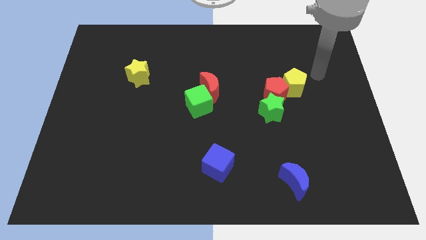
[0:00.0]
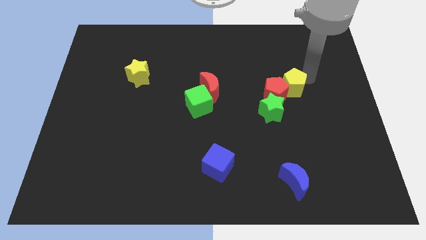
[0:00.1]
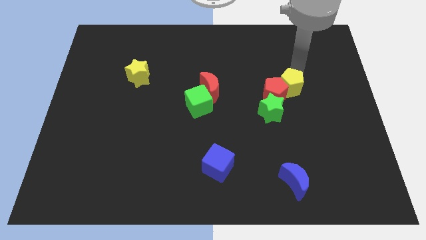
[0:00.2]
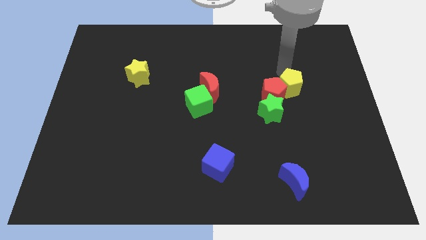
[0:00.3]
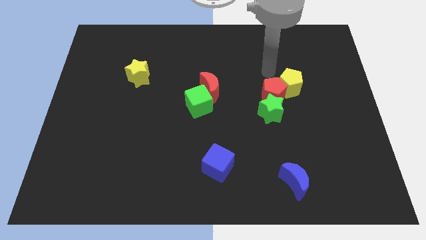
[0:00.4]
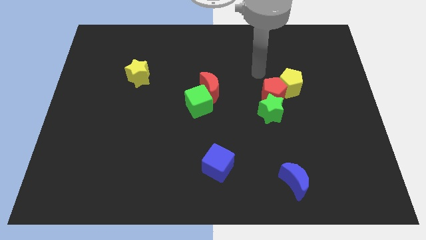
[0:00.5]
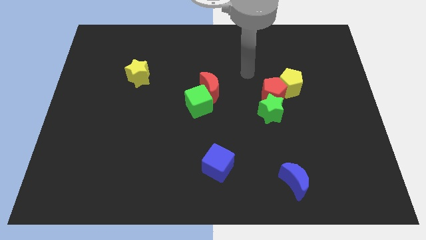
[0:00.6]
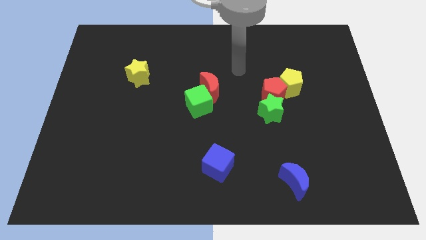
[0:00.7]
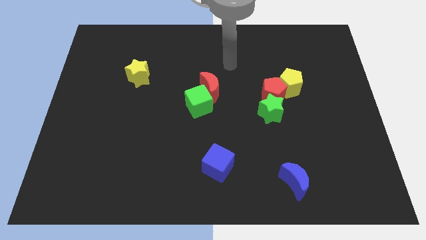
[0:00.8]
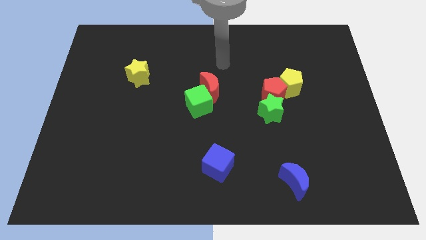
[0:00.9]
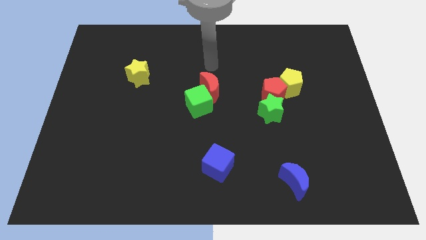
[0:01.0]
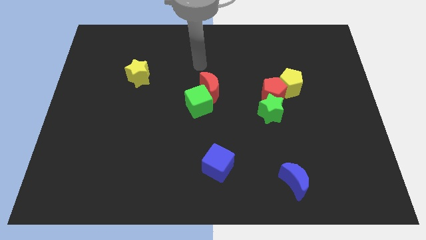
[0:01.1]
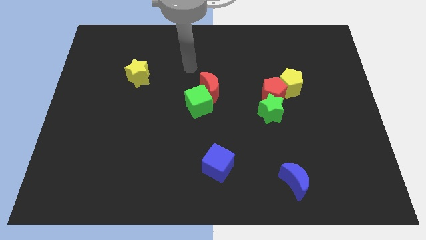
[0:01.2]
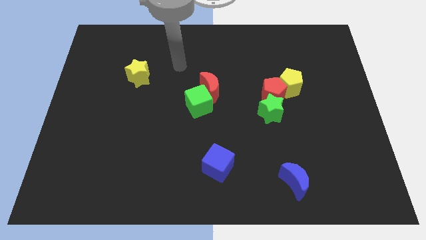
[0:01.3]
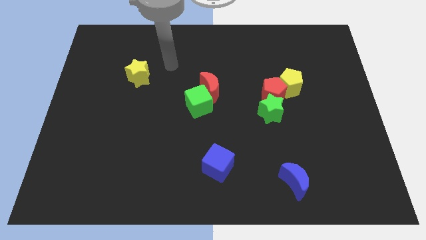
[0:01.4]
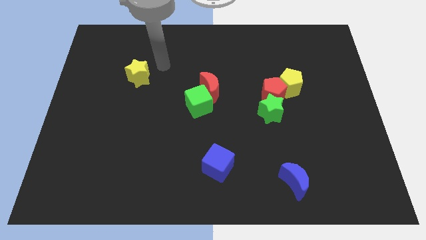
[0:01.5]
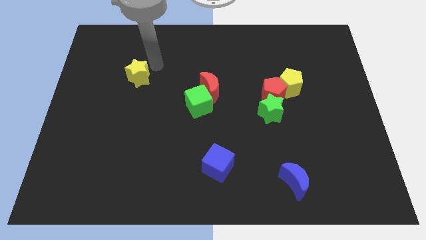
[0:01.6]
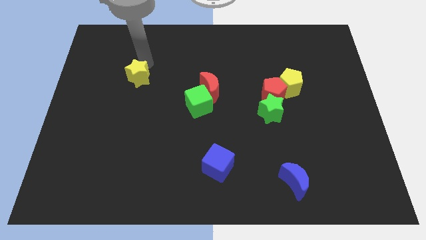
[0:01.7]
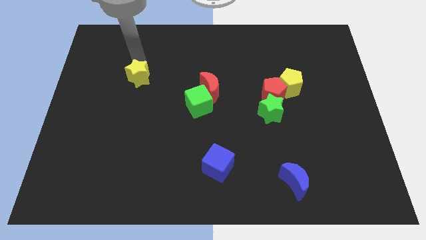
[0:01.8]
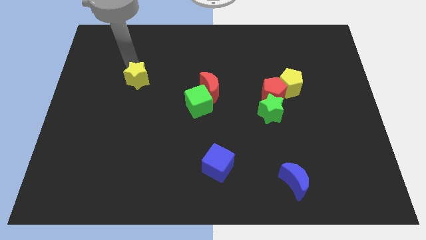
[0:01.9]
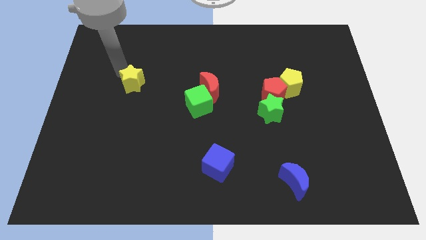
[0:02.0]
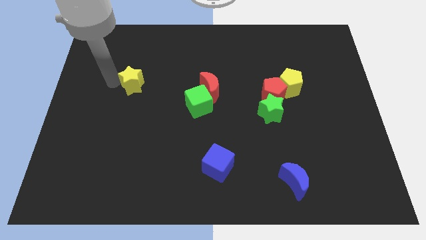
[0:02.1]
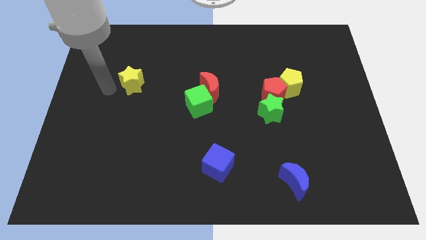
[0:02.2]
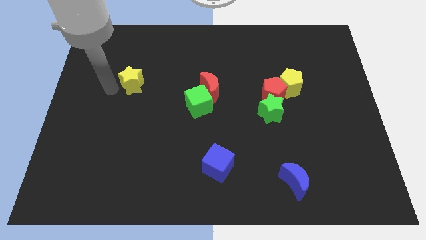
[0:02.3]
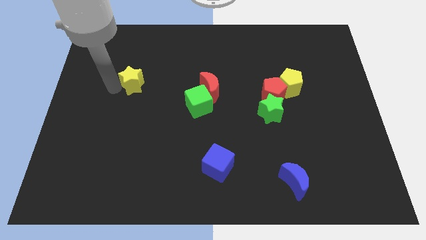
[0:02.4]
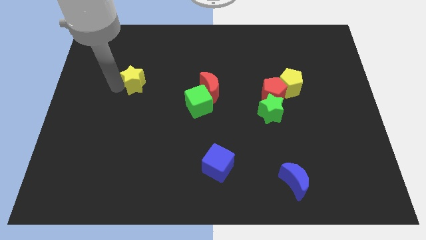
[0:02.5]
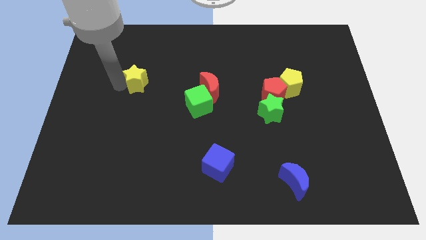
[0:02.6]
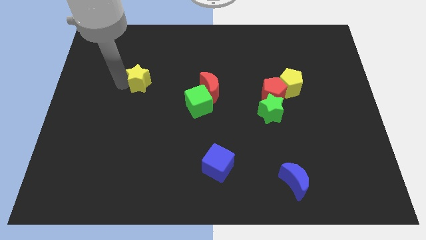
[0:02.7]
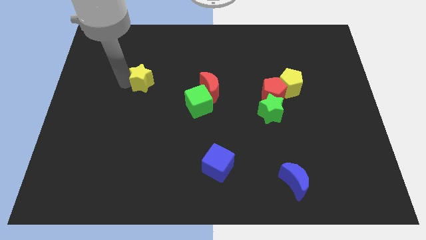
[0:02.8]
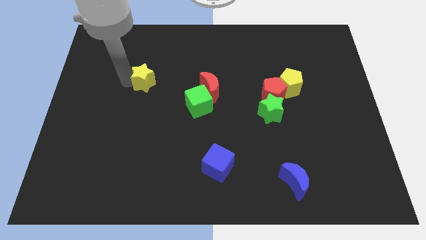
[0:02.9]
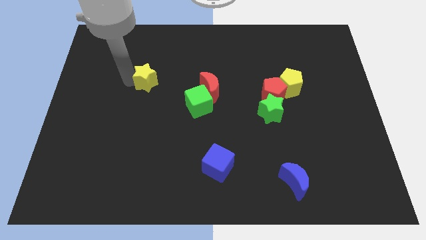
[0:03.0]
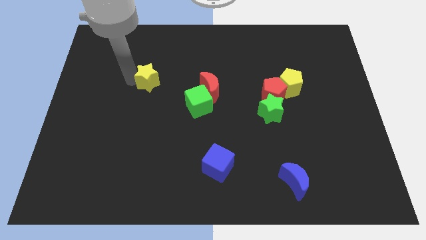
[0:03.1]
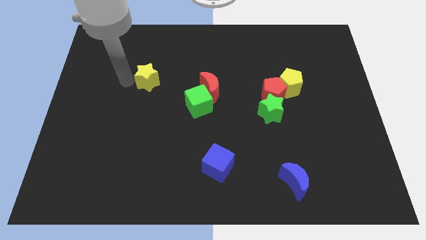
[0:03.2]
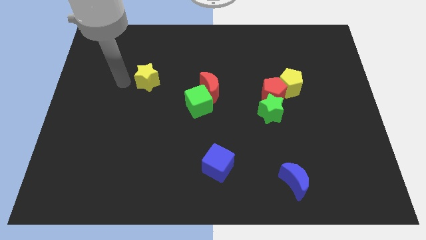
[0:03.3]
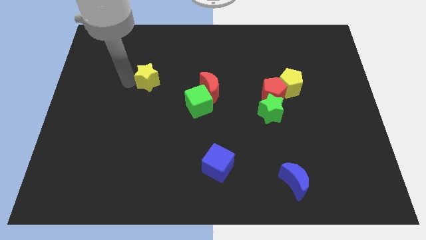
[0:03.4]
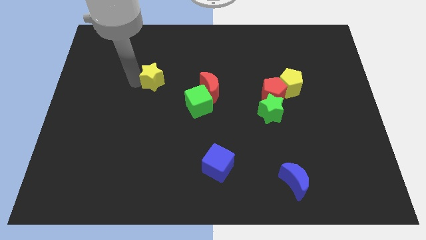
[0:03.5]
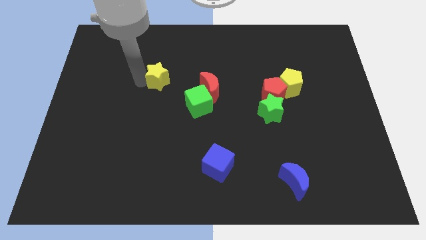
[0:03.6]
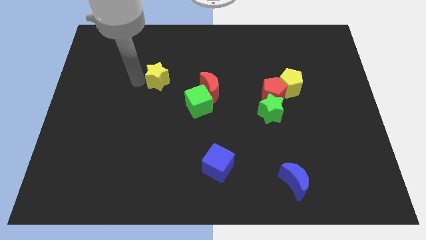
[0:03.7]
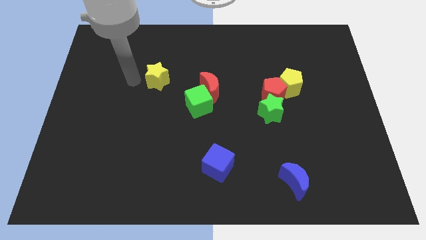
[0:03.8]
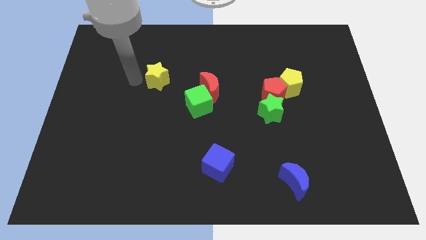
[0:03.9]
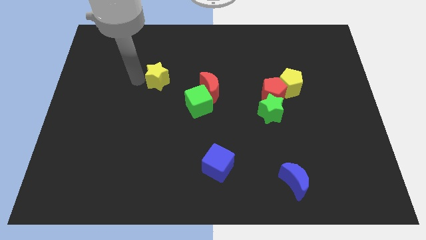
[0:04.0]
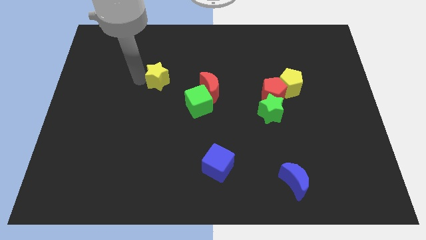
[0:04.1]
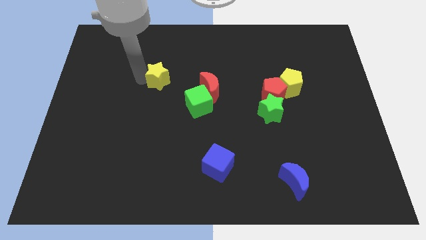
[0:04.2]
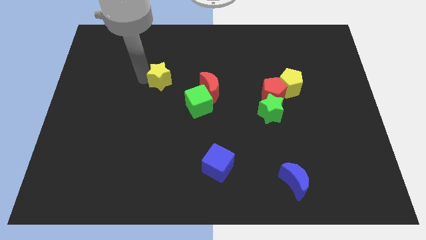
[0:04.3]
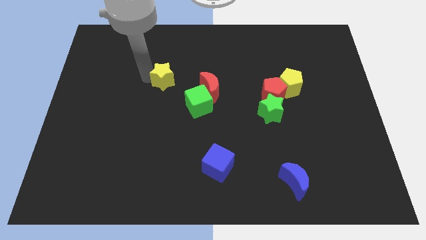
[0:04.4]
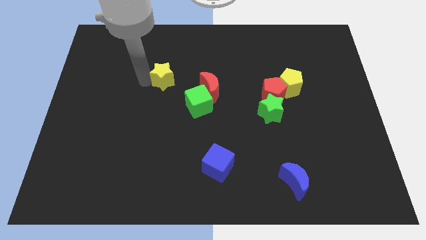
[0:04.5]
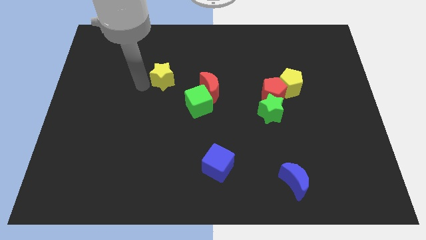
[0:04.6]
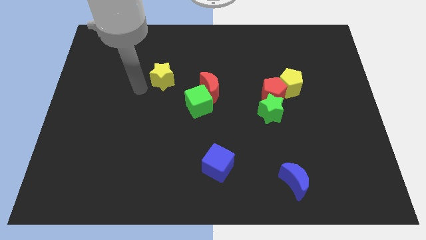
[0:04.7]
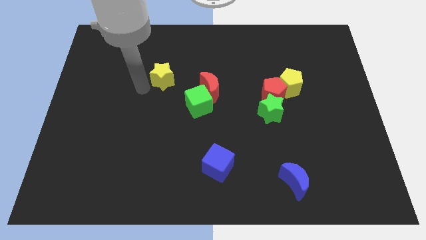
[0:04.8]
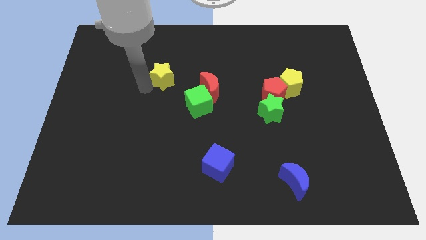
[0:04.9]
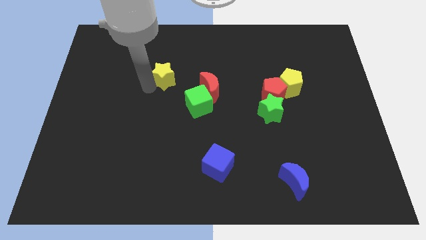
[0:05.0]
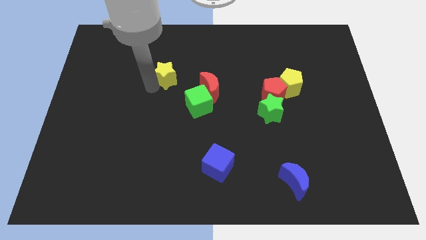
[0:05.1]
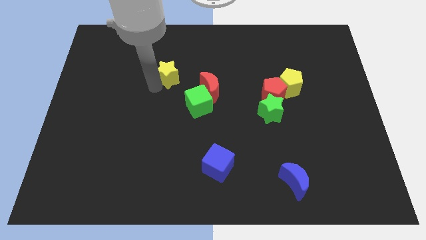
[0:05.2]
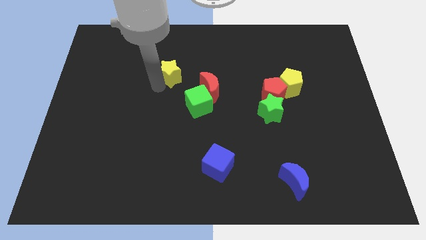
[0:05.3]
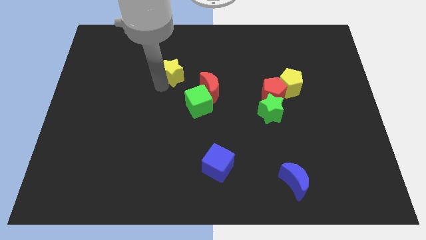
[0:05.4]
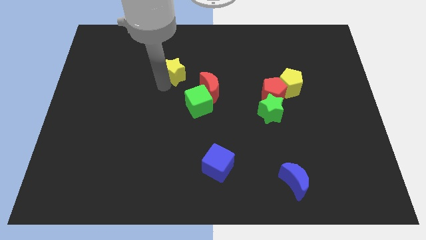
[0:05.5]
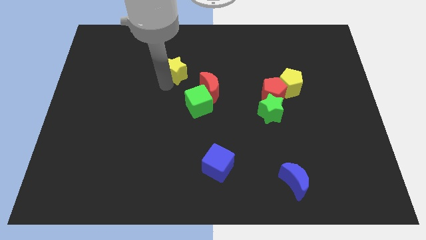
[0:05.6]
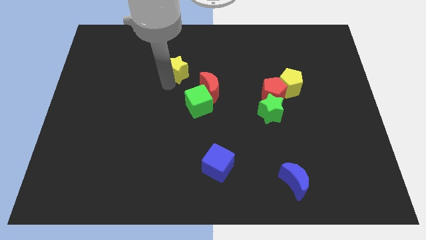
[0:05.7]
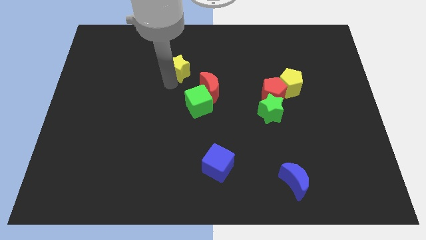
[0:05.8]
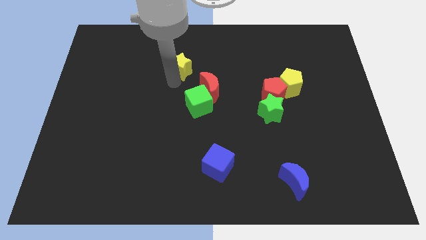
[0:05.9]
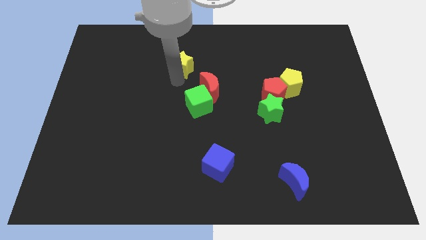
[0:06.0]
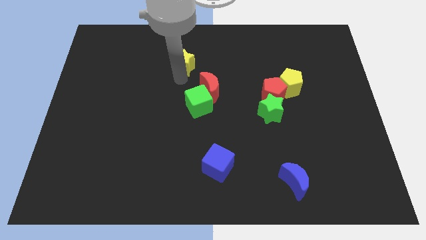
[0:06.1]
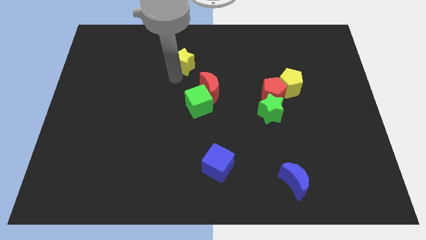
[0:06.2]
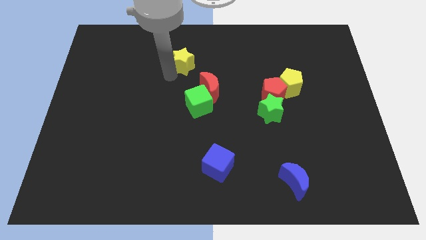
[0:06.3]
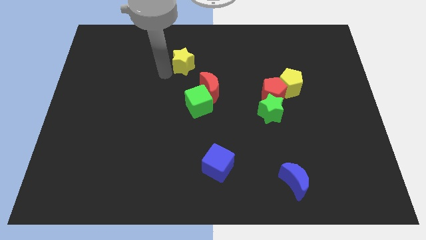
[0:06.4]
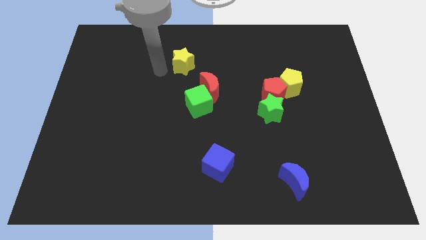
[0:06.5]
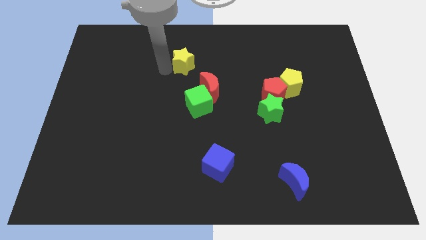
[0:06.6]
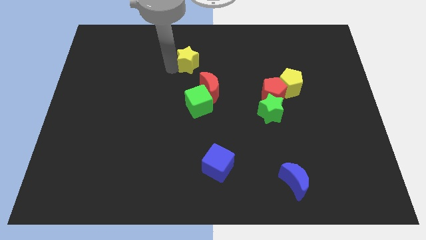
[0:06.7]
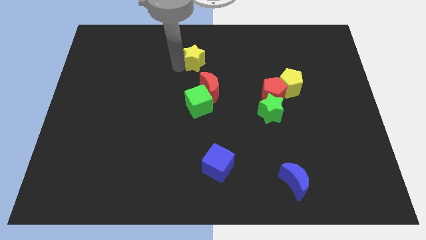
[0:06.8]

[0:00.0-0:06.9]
slide the yellow star to the top of the red moon
